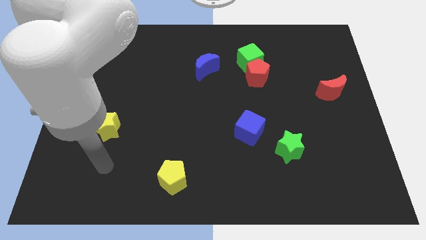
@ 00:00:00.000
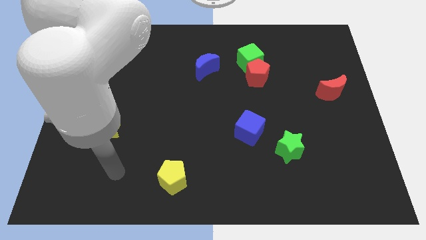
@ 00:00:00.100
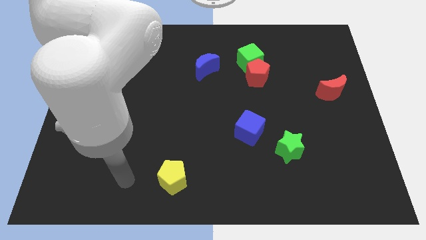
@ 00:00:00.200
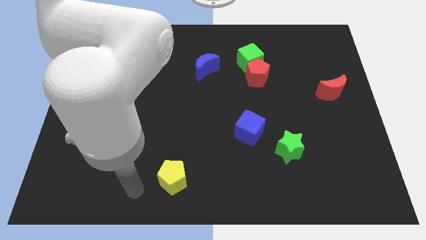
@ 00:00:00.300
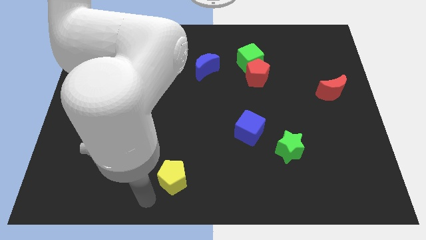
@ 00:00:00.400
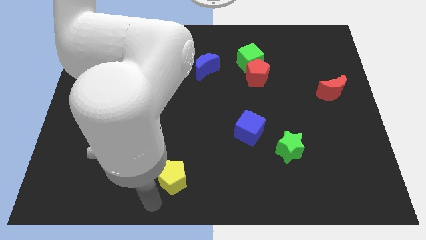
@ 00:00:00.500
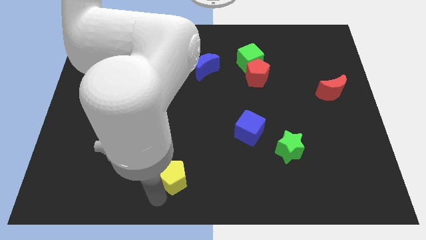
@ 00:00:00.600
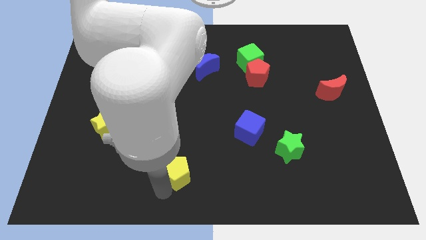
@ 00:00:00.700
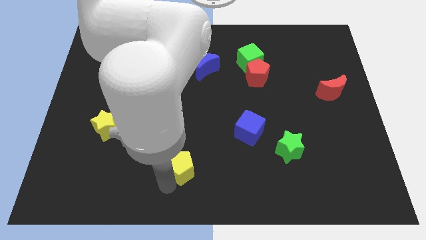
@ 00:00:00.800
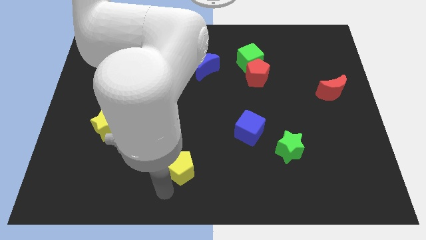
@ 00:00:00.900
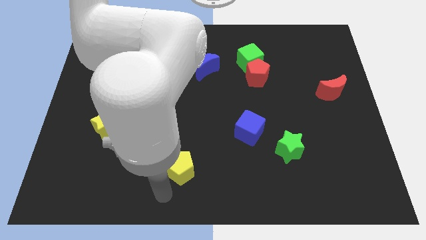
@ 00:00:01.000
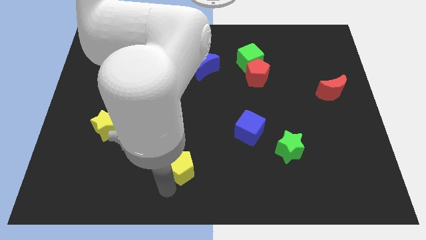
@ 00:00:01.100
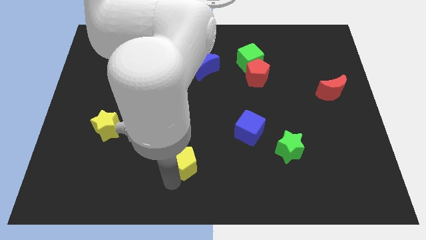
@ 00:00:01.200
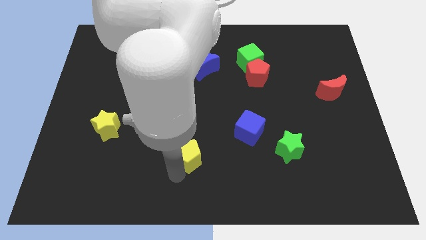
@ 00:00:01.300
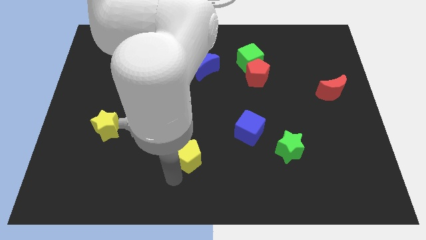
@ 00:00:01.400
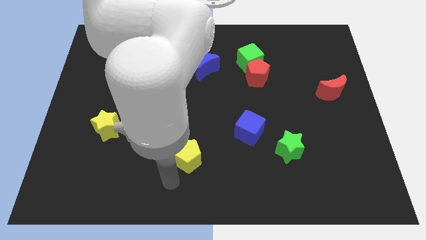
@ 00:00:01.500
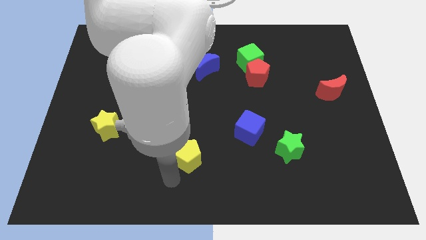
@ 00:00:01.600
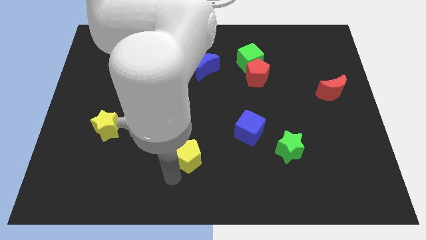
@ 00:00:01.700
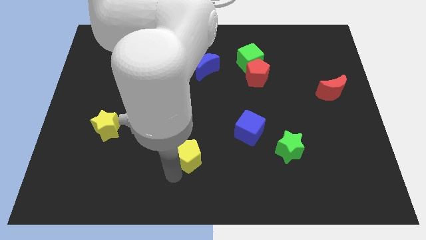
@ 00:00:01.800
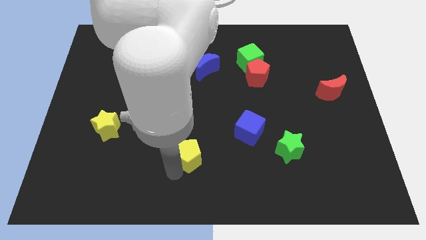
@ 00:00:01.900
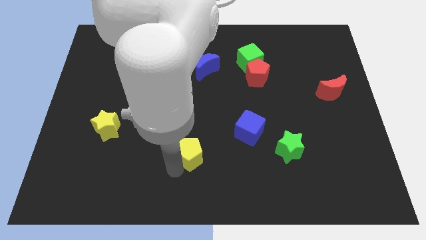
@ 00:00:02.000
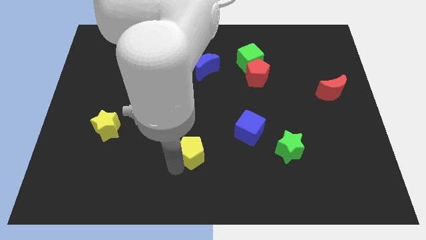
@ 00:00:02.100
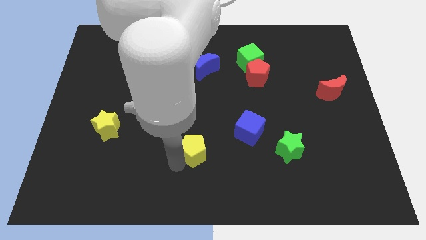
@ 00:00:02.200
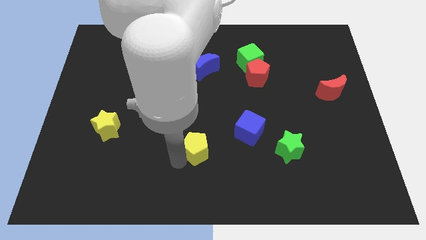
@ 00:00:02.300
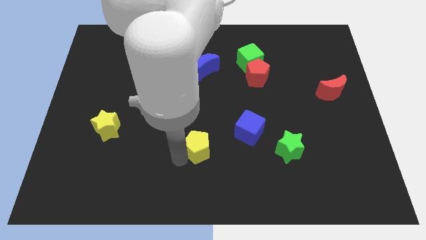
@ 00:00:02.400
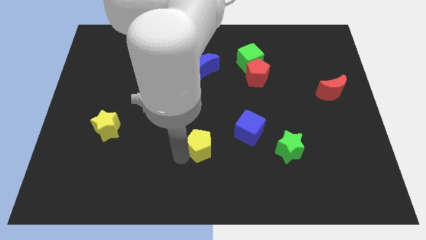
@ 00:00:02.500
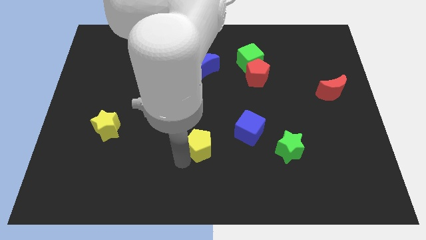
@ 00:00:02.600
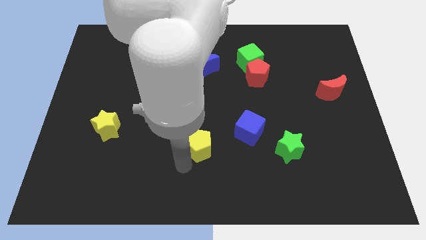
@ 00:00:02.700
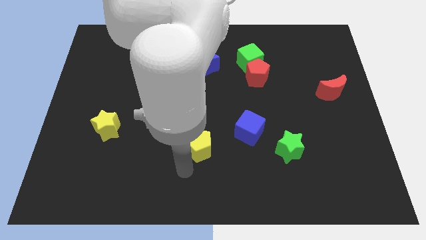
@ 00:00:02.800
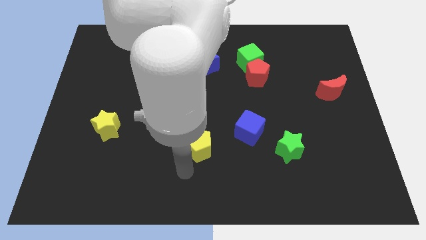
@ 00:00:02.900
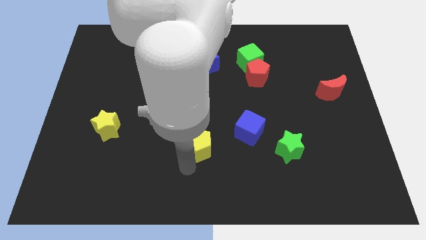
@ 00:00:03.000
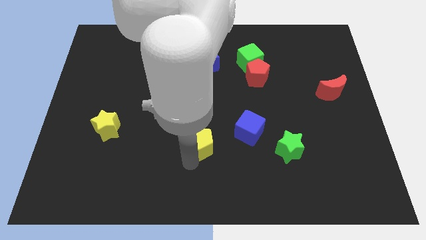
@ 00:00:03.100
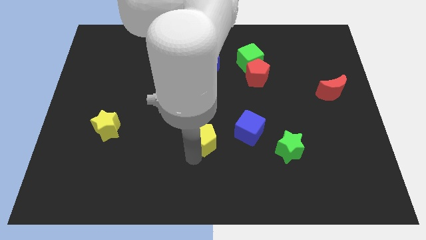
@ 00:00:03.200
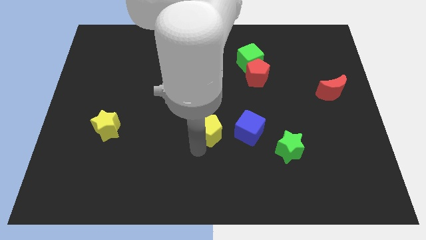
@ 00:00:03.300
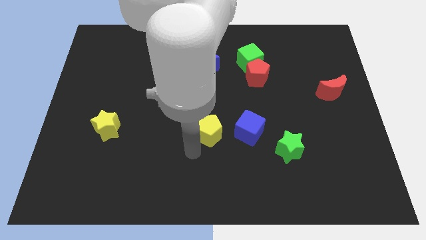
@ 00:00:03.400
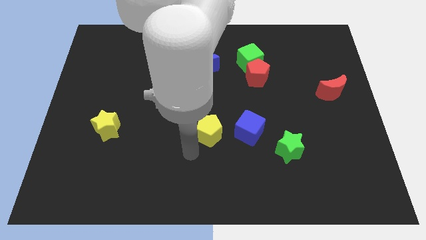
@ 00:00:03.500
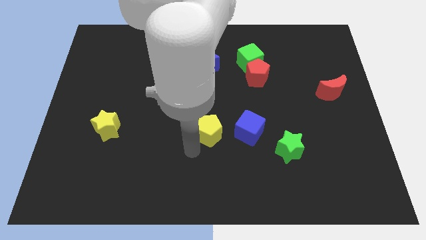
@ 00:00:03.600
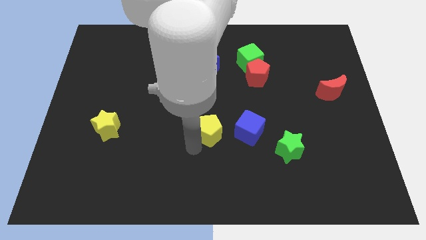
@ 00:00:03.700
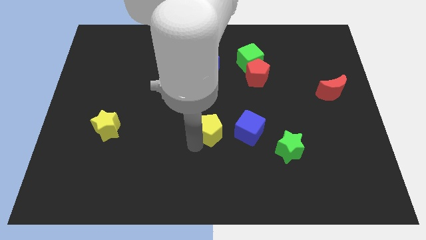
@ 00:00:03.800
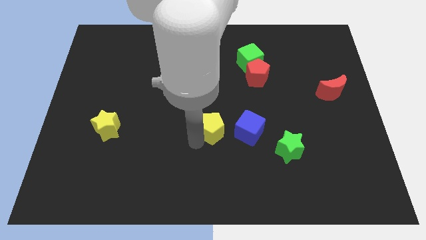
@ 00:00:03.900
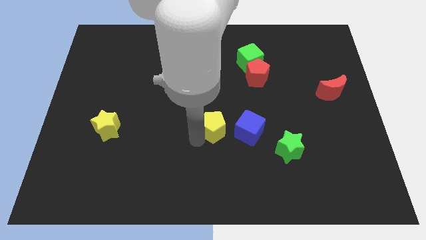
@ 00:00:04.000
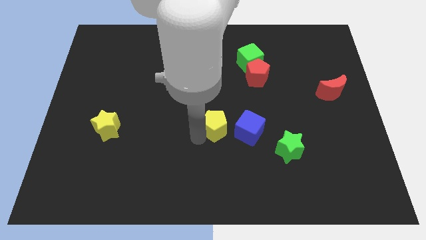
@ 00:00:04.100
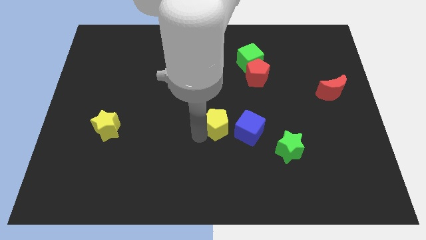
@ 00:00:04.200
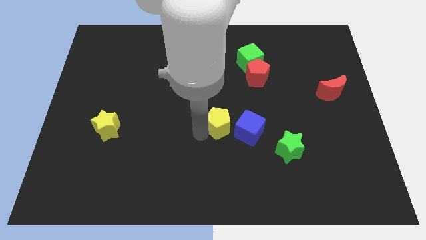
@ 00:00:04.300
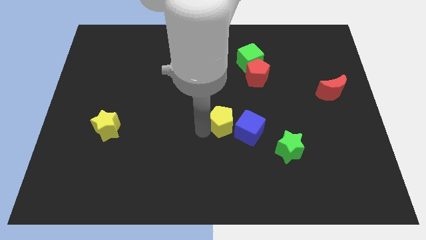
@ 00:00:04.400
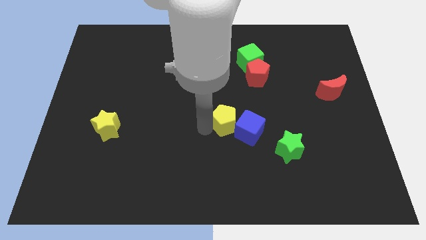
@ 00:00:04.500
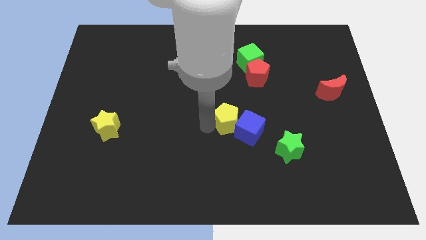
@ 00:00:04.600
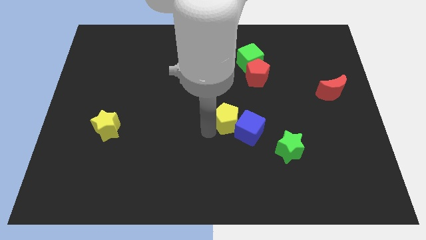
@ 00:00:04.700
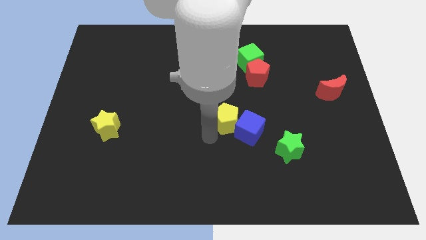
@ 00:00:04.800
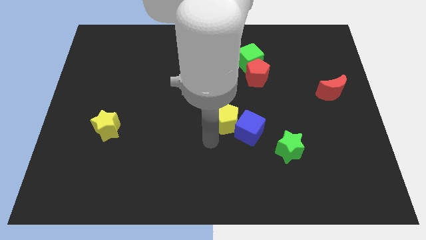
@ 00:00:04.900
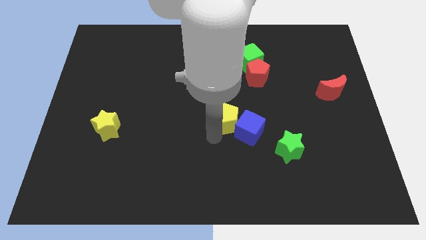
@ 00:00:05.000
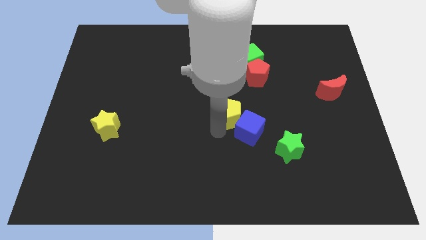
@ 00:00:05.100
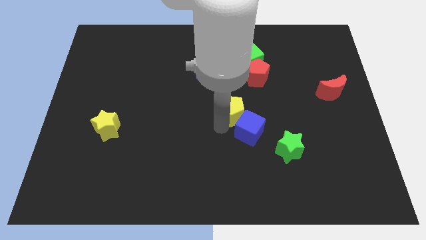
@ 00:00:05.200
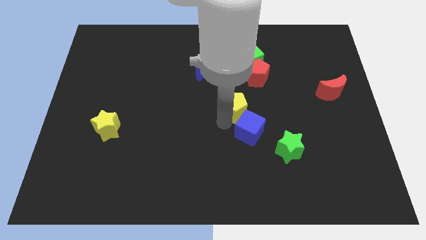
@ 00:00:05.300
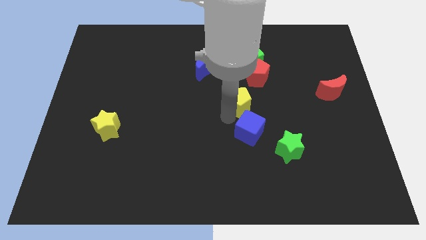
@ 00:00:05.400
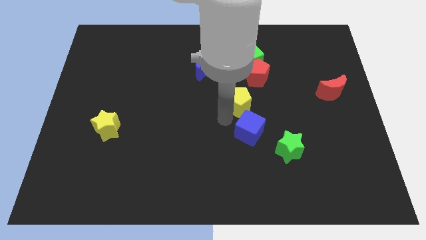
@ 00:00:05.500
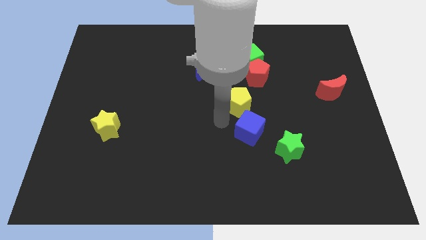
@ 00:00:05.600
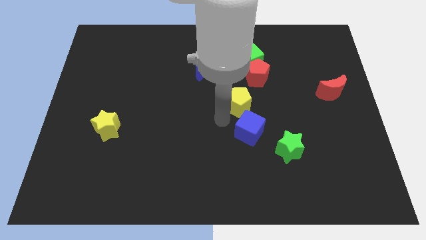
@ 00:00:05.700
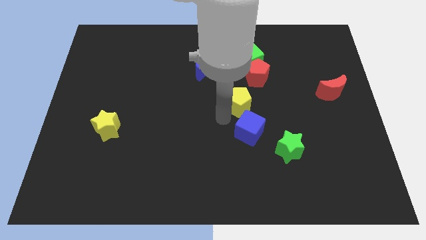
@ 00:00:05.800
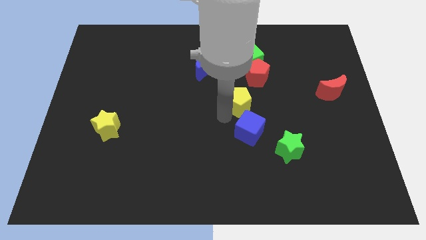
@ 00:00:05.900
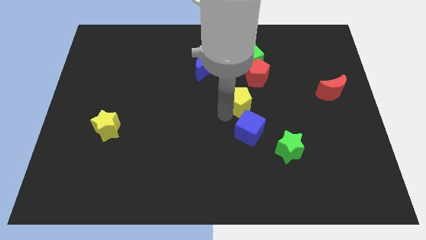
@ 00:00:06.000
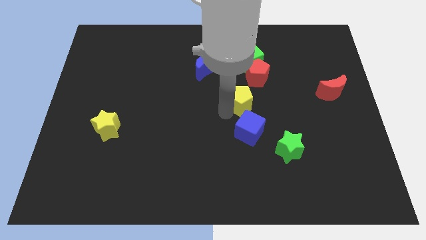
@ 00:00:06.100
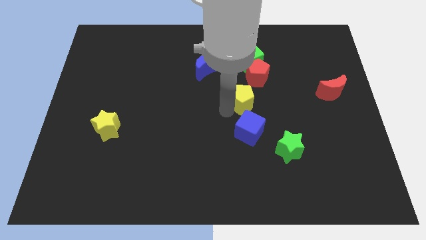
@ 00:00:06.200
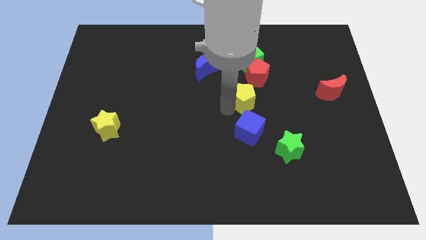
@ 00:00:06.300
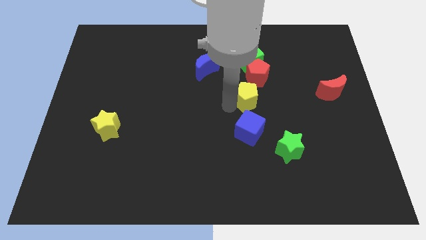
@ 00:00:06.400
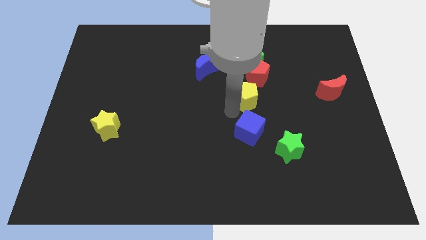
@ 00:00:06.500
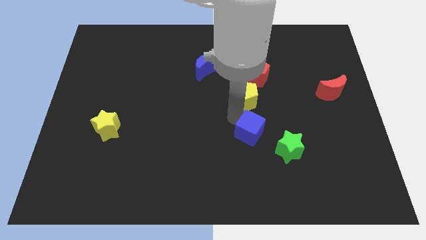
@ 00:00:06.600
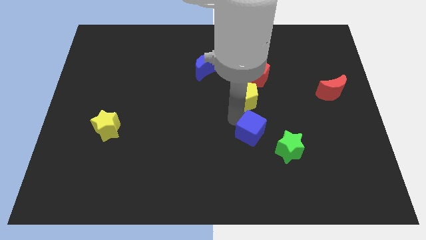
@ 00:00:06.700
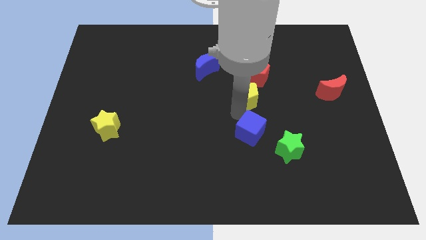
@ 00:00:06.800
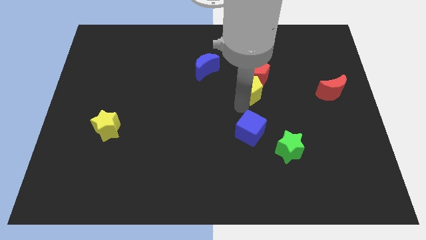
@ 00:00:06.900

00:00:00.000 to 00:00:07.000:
put the yellow pentagon next to the red pentagon
